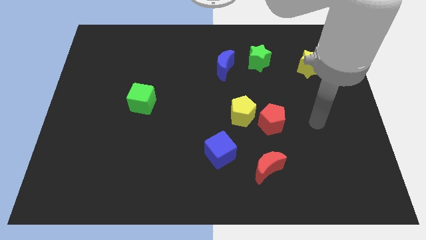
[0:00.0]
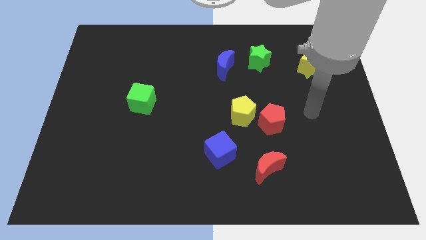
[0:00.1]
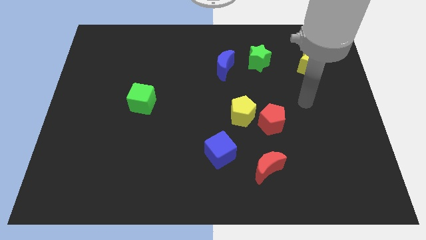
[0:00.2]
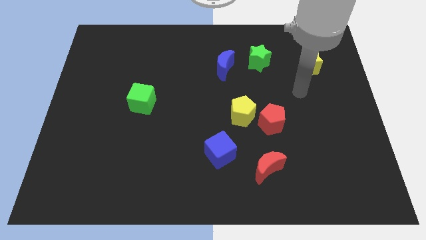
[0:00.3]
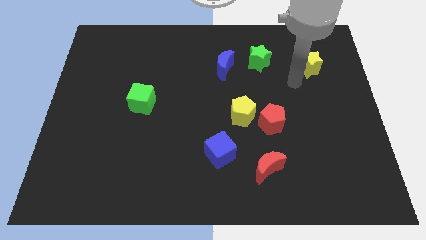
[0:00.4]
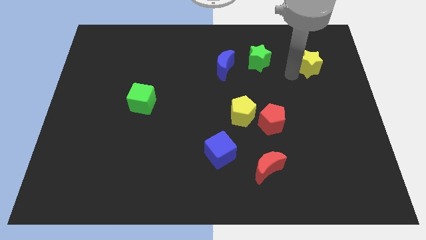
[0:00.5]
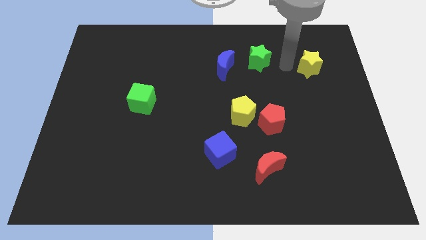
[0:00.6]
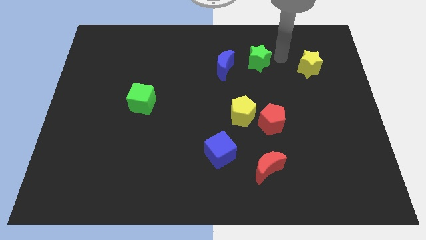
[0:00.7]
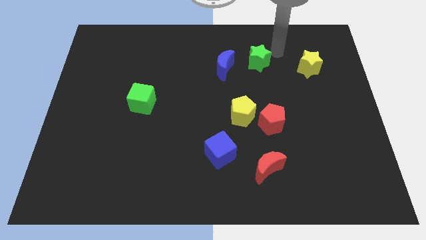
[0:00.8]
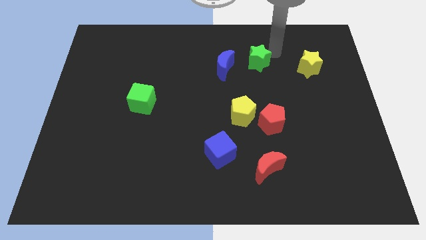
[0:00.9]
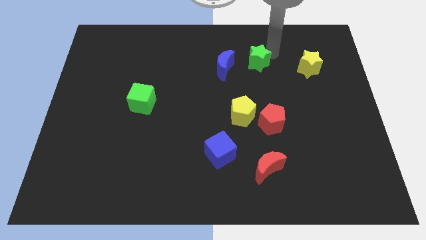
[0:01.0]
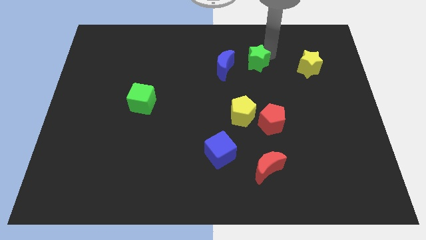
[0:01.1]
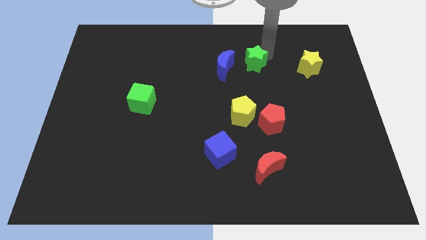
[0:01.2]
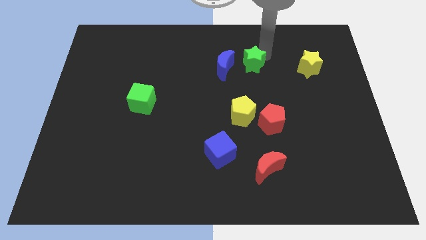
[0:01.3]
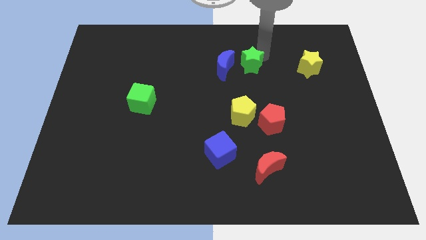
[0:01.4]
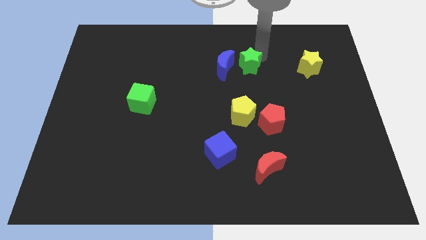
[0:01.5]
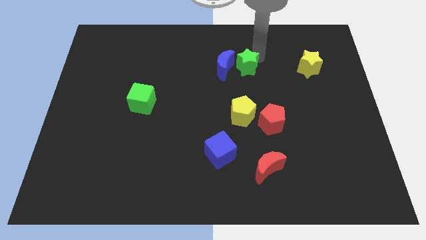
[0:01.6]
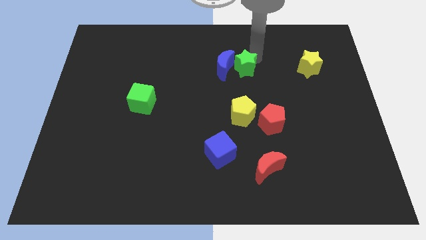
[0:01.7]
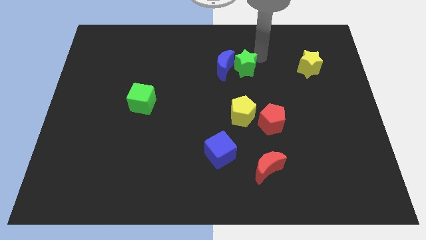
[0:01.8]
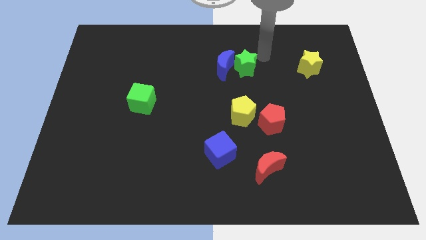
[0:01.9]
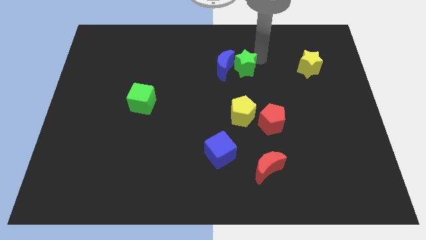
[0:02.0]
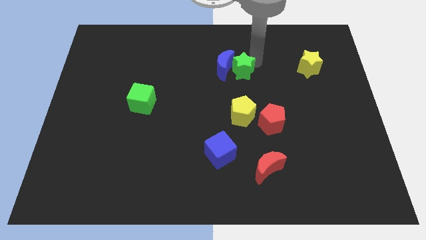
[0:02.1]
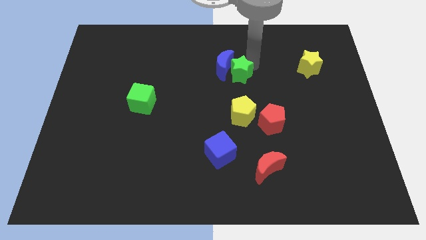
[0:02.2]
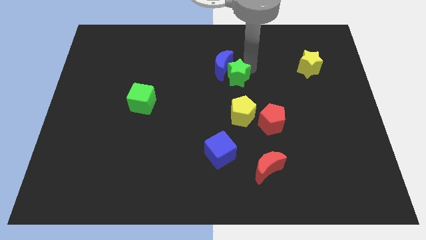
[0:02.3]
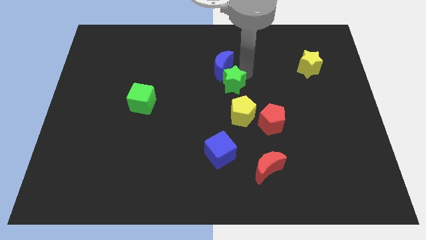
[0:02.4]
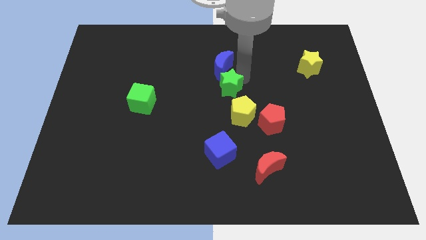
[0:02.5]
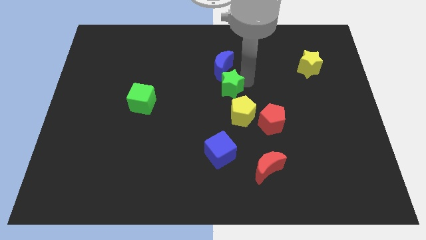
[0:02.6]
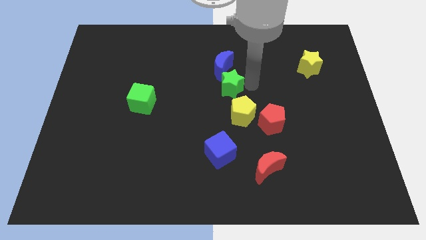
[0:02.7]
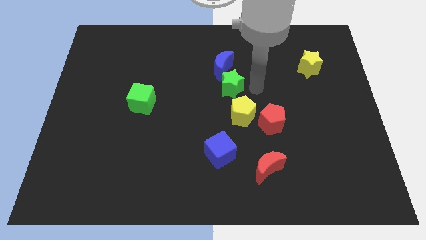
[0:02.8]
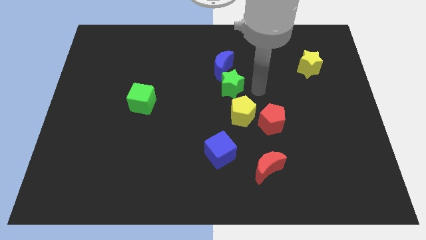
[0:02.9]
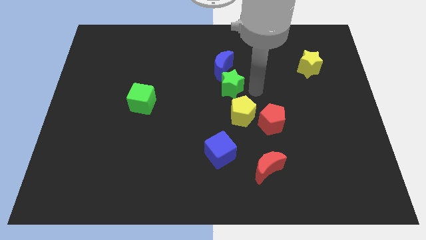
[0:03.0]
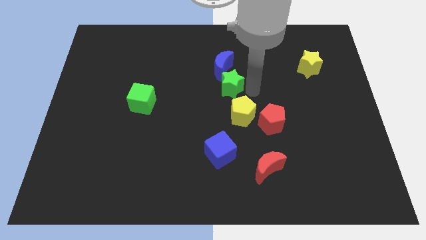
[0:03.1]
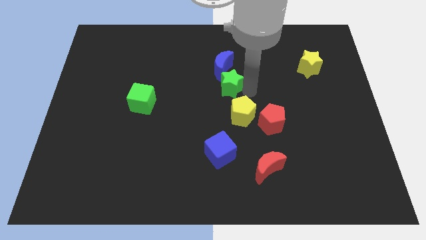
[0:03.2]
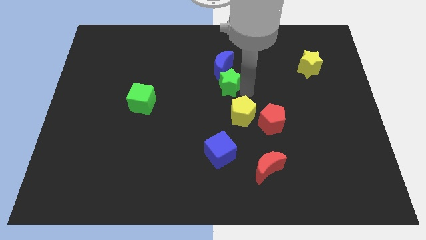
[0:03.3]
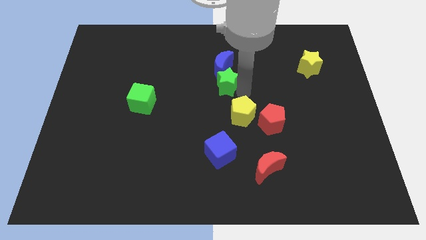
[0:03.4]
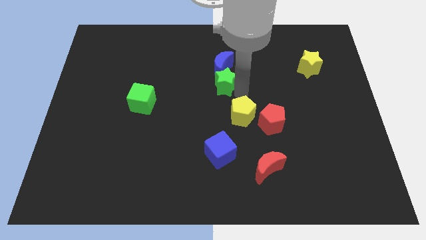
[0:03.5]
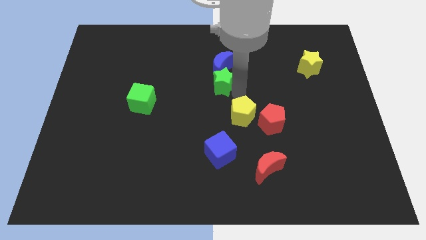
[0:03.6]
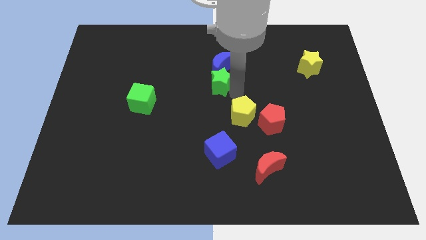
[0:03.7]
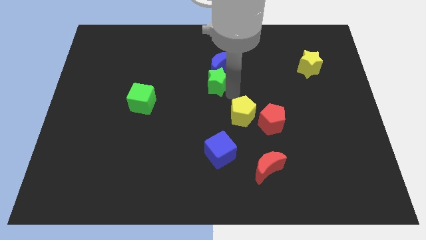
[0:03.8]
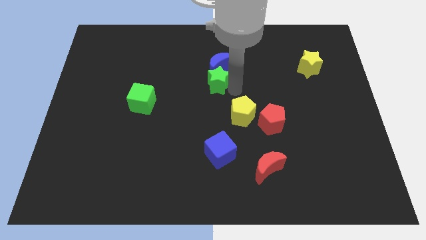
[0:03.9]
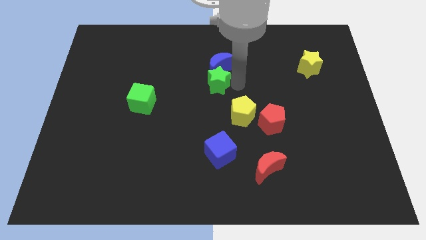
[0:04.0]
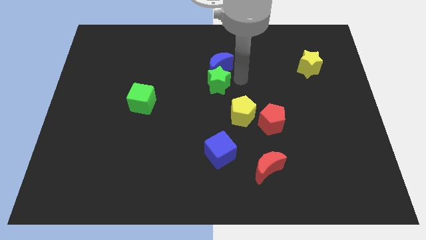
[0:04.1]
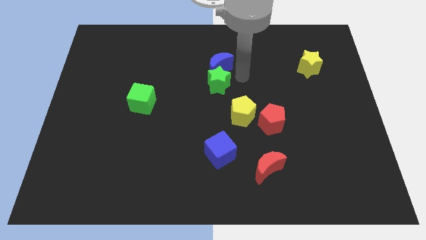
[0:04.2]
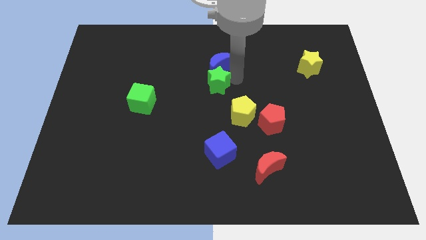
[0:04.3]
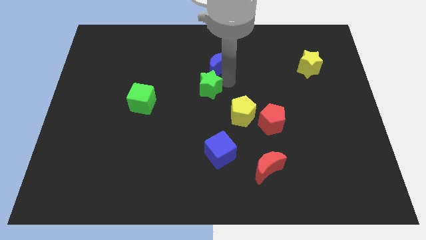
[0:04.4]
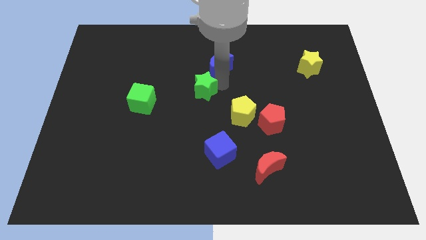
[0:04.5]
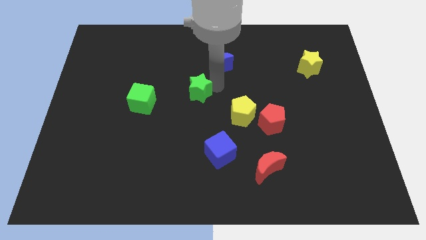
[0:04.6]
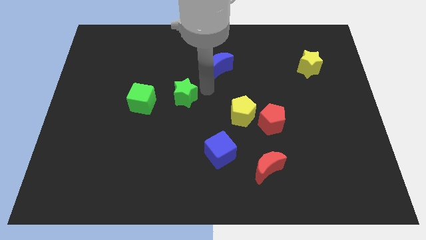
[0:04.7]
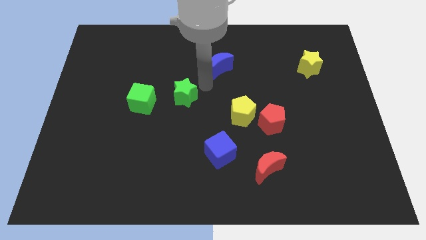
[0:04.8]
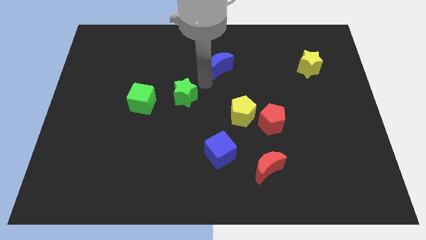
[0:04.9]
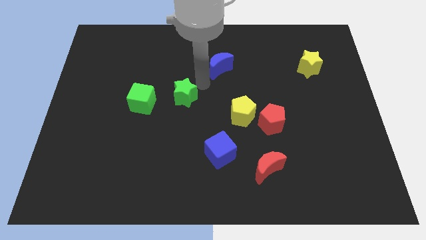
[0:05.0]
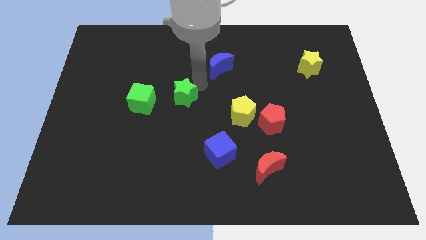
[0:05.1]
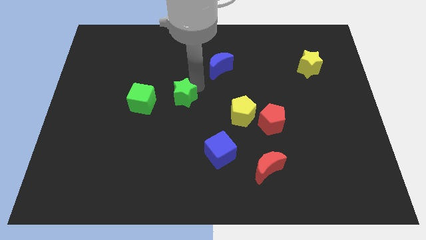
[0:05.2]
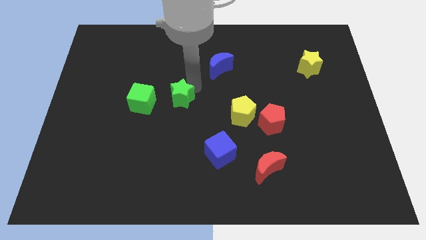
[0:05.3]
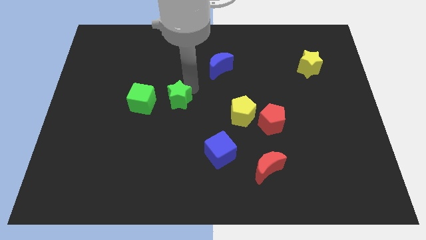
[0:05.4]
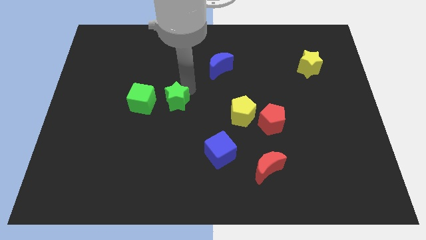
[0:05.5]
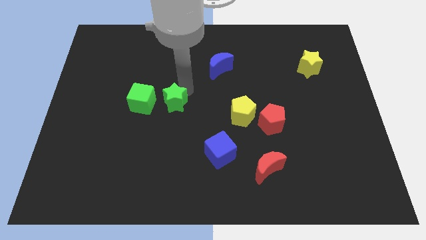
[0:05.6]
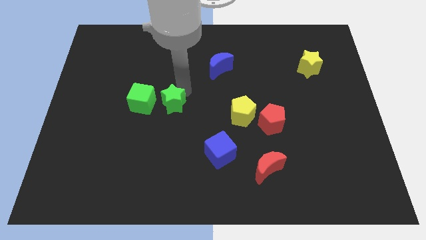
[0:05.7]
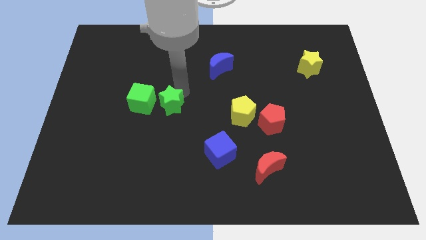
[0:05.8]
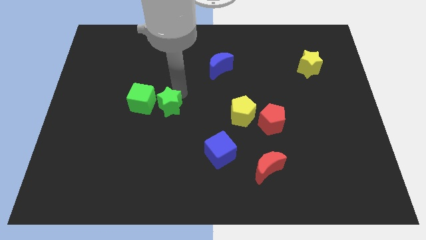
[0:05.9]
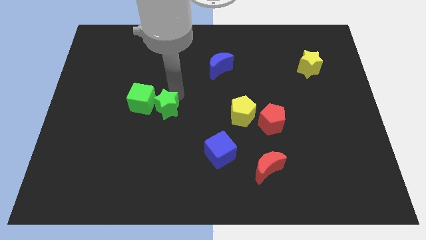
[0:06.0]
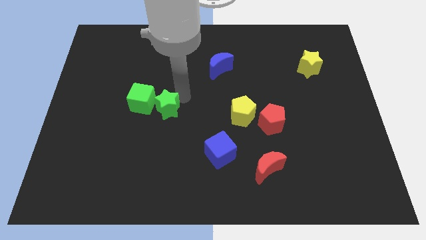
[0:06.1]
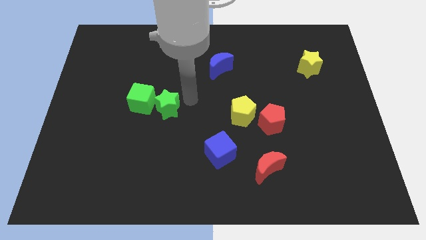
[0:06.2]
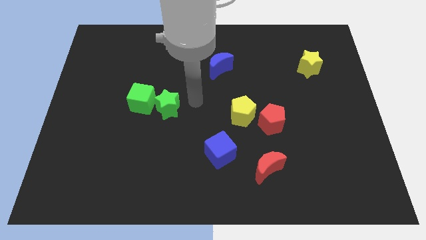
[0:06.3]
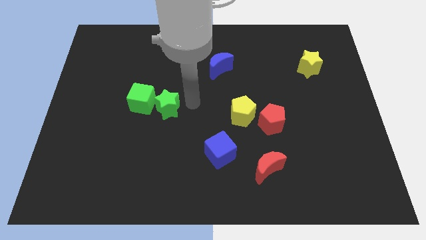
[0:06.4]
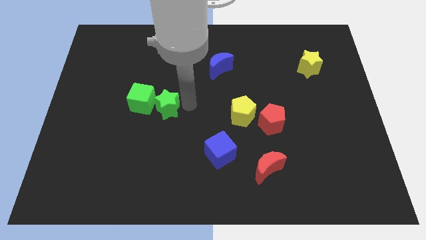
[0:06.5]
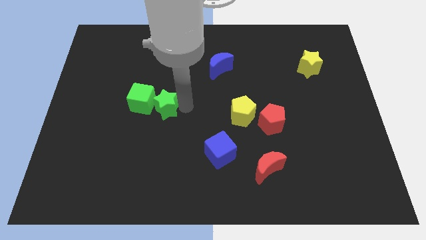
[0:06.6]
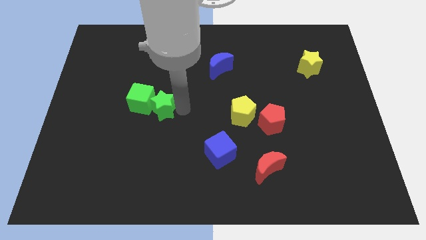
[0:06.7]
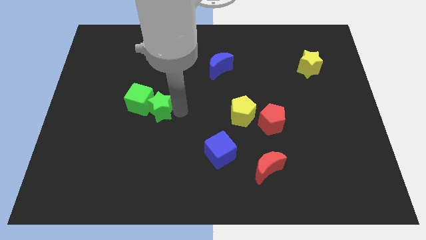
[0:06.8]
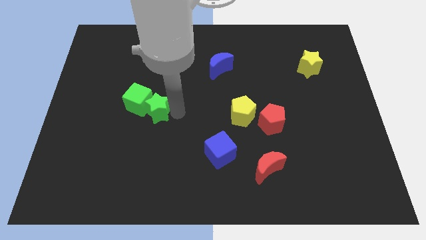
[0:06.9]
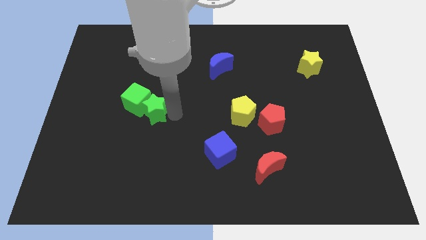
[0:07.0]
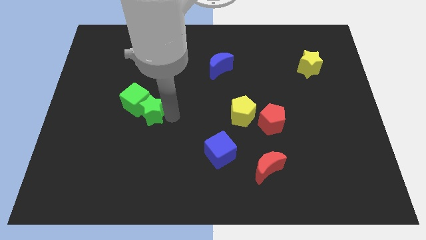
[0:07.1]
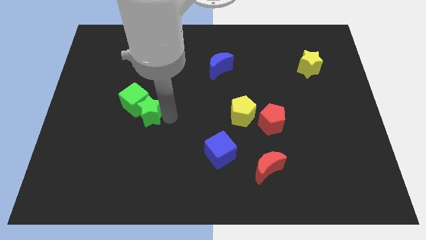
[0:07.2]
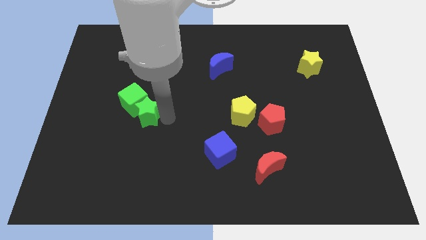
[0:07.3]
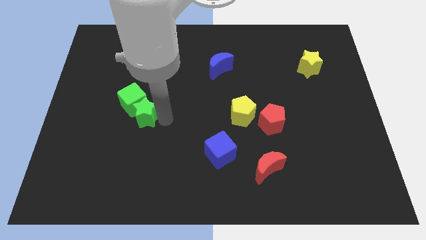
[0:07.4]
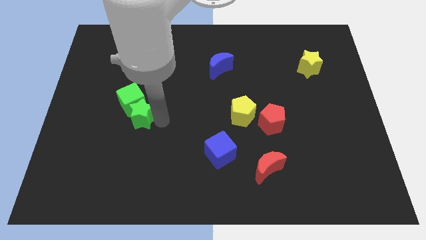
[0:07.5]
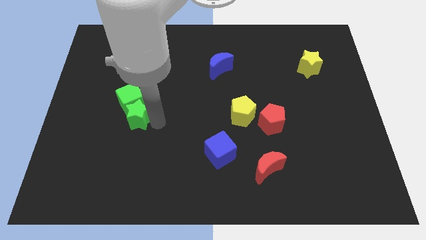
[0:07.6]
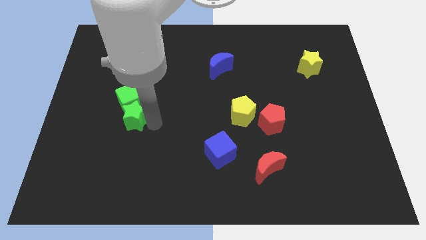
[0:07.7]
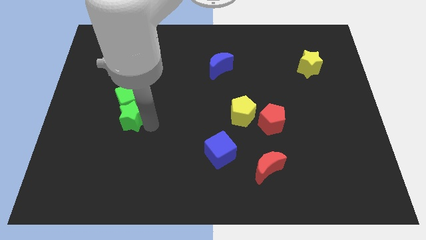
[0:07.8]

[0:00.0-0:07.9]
put the green star to the bottom left of the green cube

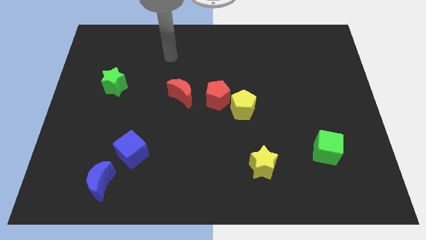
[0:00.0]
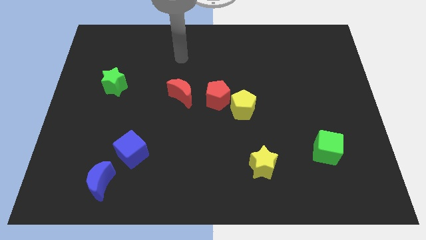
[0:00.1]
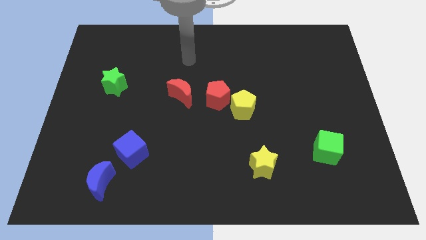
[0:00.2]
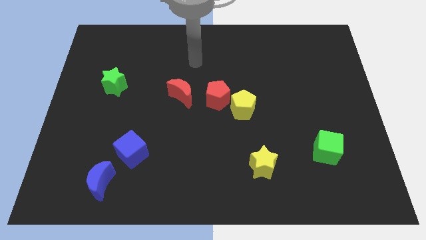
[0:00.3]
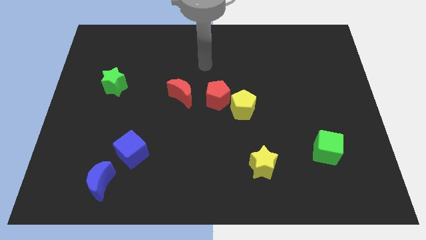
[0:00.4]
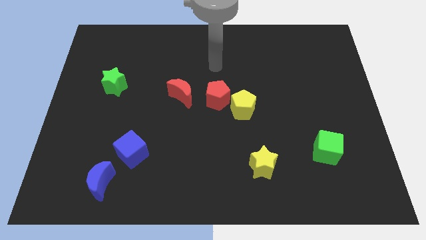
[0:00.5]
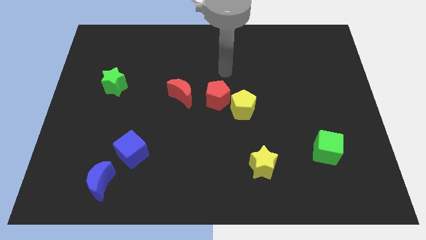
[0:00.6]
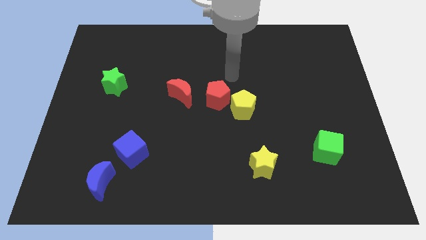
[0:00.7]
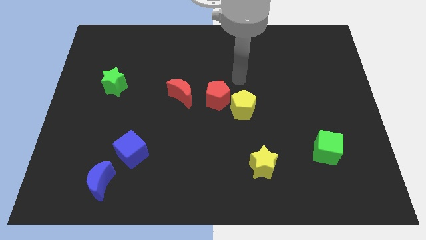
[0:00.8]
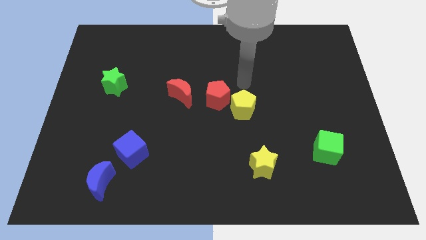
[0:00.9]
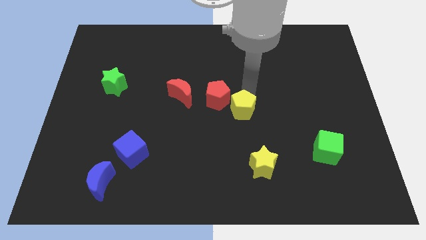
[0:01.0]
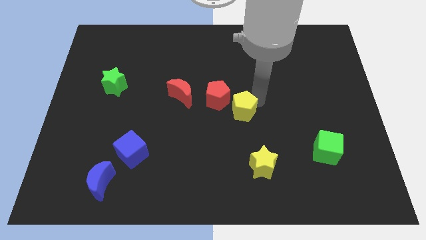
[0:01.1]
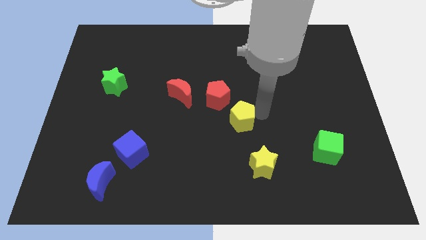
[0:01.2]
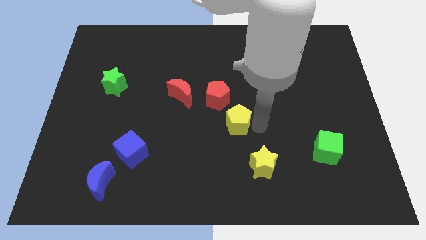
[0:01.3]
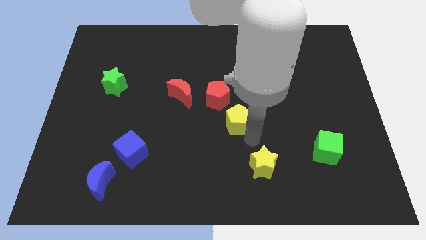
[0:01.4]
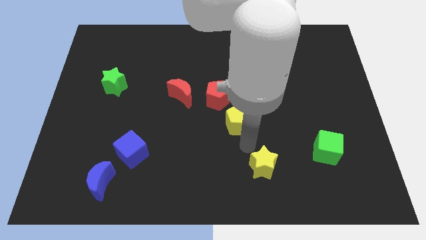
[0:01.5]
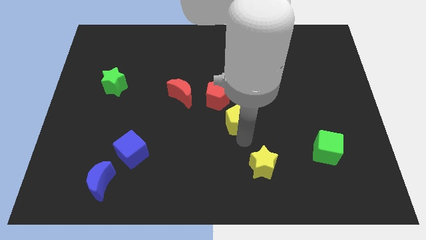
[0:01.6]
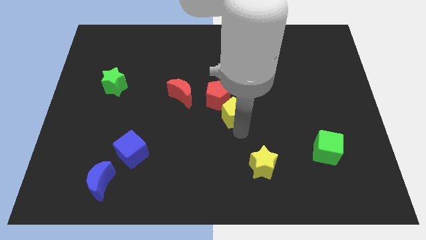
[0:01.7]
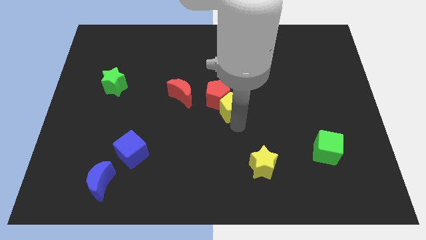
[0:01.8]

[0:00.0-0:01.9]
move the yellow pentagon to the right of the red moon
